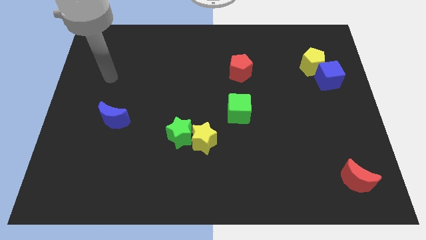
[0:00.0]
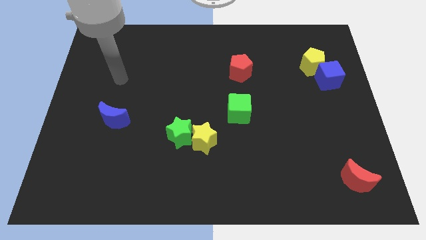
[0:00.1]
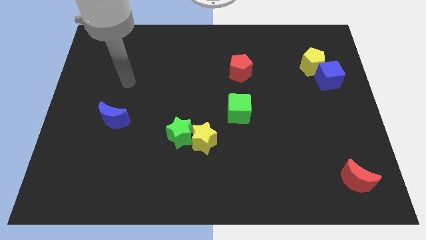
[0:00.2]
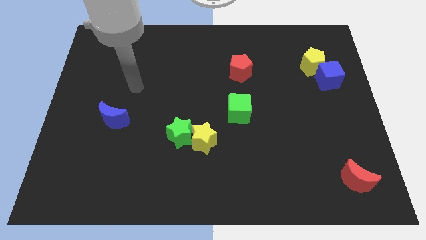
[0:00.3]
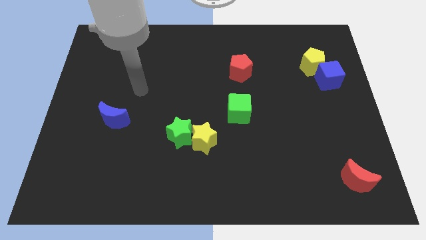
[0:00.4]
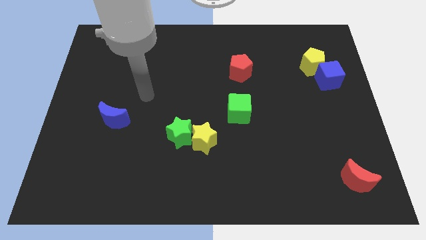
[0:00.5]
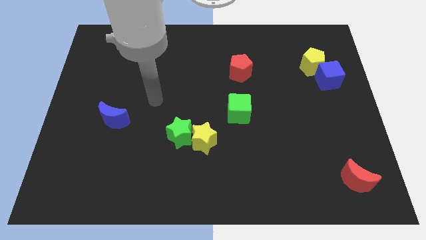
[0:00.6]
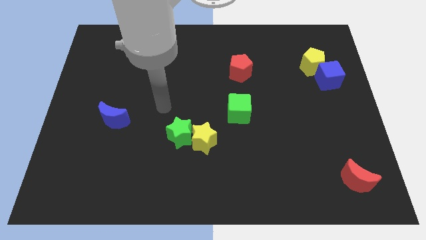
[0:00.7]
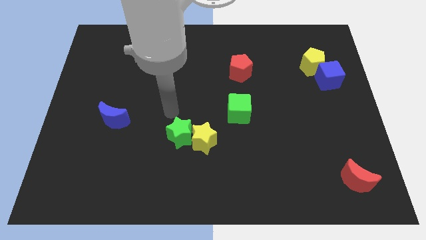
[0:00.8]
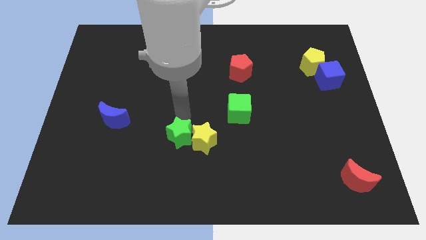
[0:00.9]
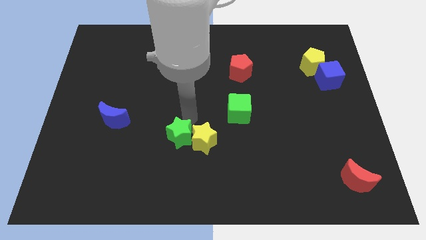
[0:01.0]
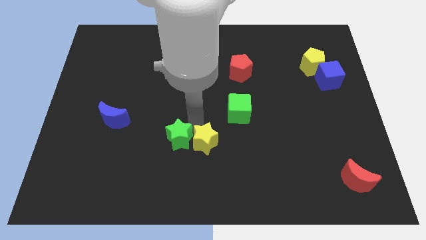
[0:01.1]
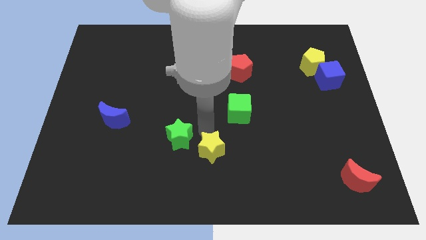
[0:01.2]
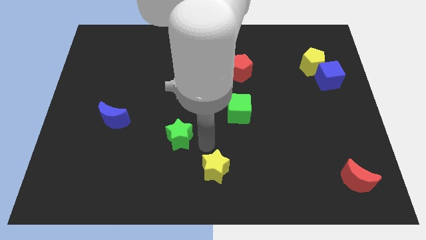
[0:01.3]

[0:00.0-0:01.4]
move the green star away from the yellow star

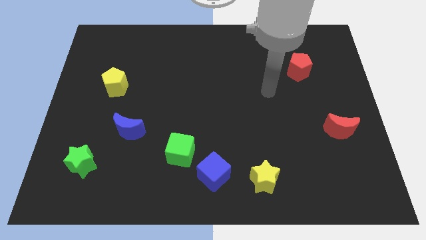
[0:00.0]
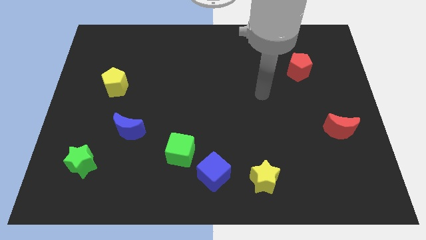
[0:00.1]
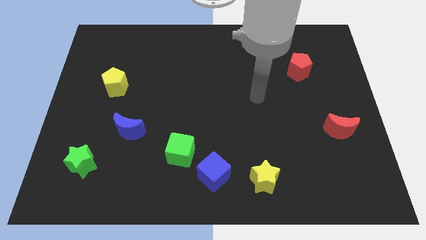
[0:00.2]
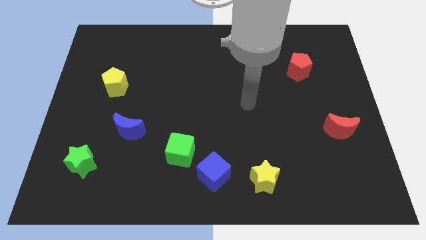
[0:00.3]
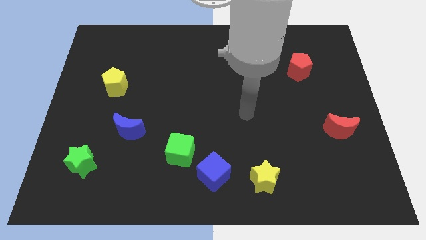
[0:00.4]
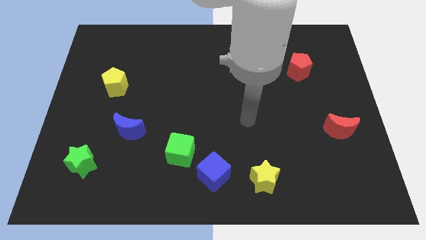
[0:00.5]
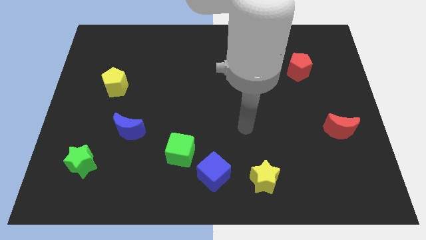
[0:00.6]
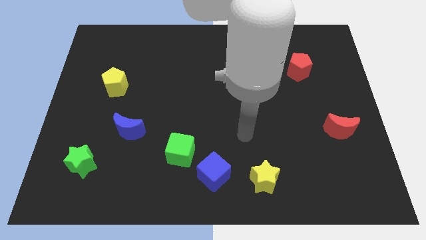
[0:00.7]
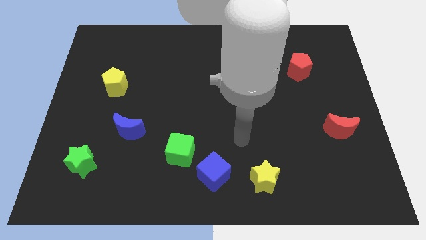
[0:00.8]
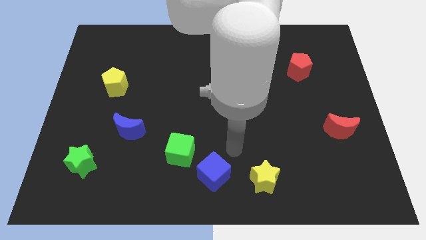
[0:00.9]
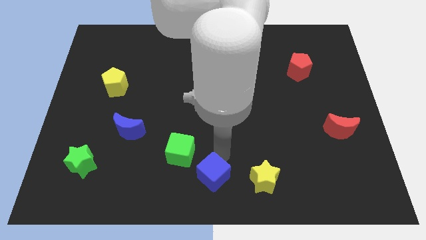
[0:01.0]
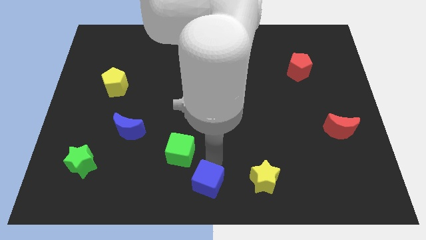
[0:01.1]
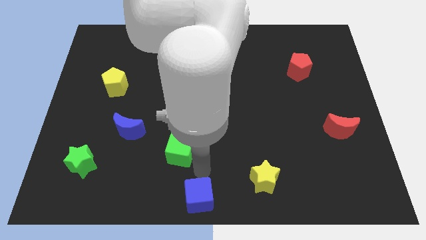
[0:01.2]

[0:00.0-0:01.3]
separate the green cube from the blue cube

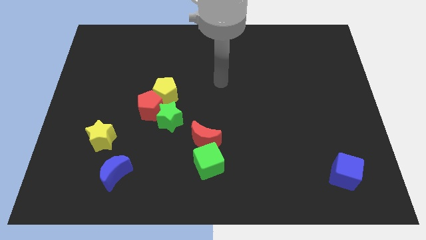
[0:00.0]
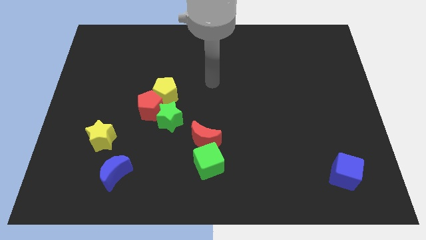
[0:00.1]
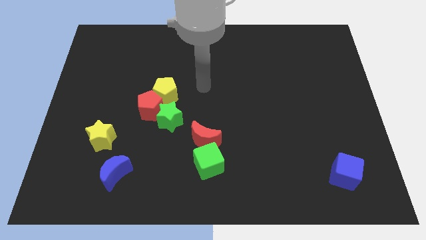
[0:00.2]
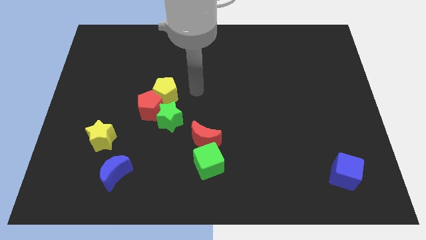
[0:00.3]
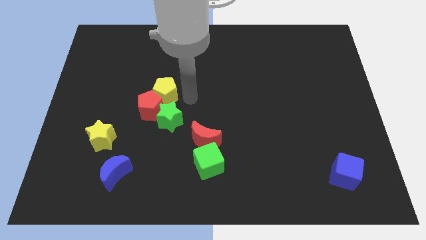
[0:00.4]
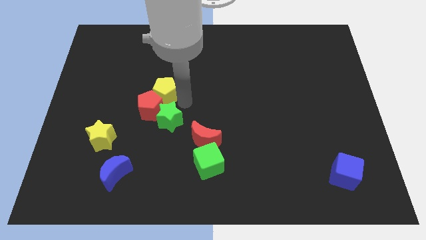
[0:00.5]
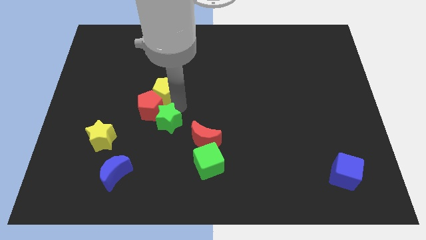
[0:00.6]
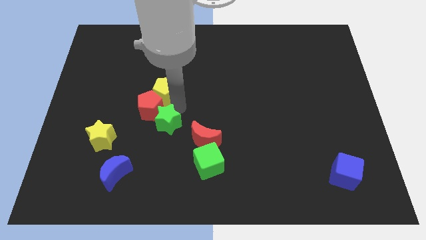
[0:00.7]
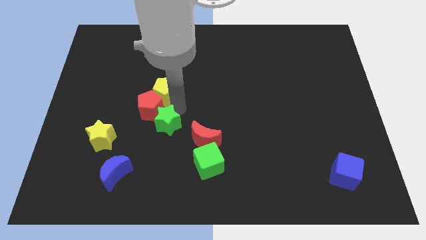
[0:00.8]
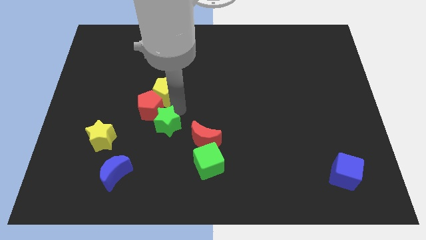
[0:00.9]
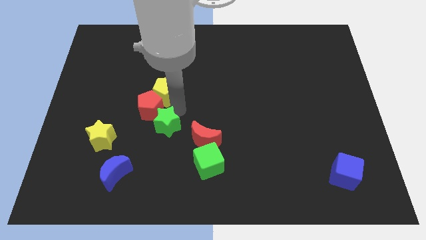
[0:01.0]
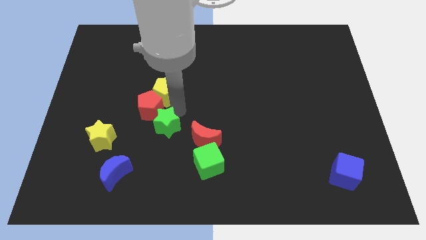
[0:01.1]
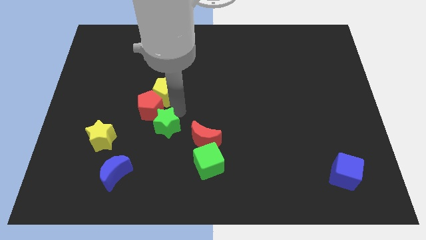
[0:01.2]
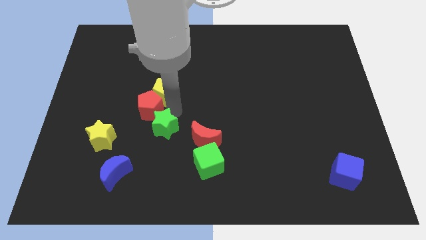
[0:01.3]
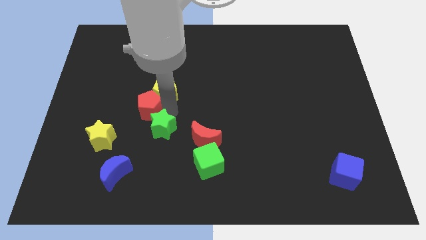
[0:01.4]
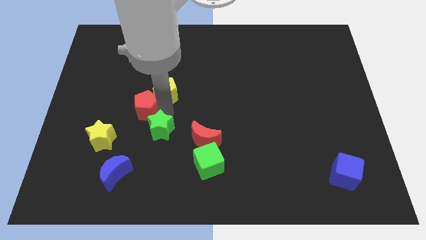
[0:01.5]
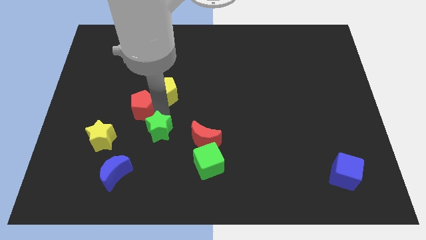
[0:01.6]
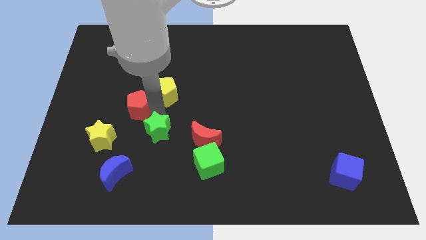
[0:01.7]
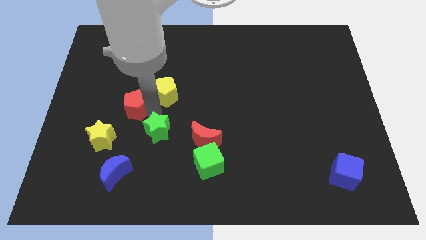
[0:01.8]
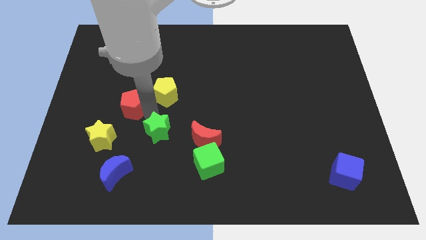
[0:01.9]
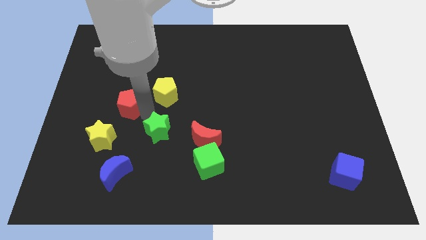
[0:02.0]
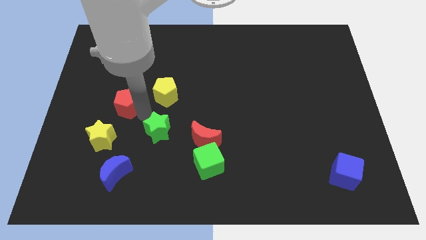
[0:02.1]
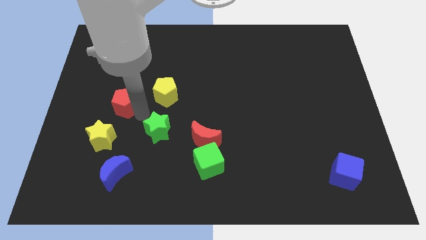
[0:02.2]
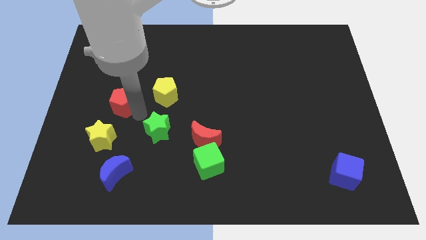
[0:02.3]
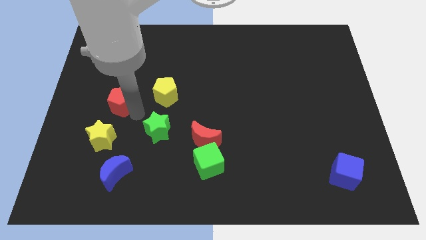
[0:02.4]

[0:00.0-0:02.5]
pull the red pentagon apart from the yellow pentagon and green star

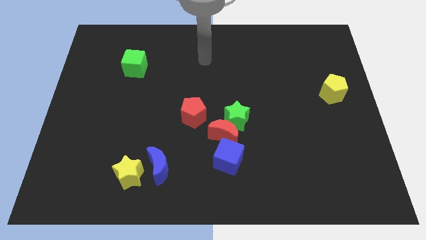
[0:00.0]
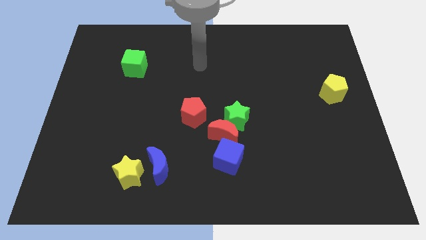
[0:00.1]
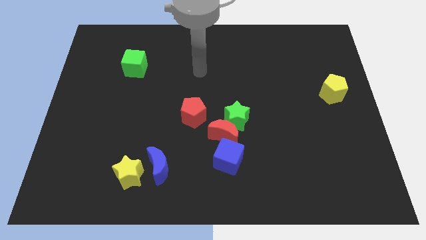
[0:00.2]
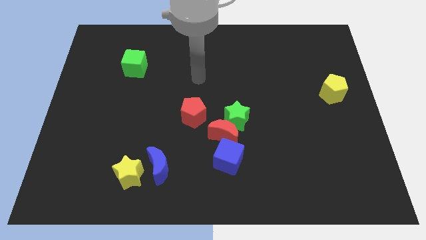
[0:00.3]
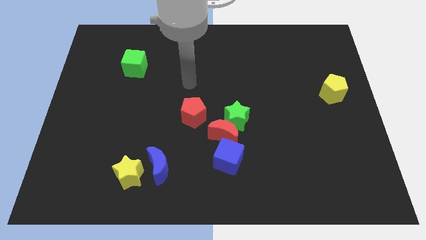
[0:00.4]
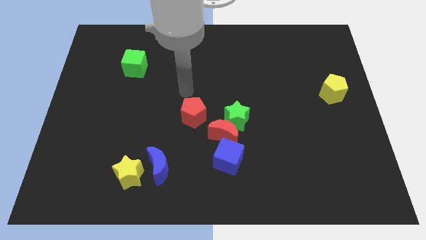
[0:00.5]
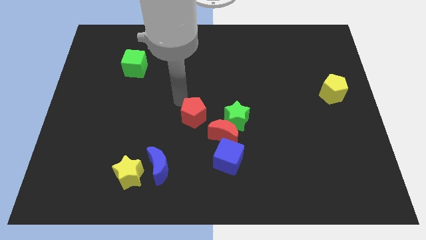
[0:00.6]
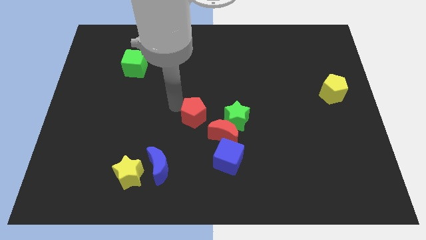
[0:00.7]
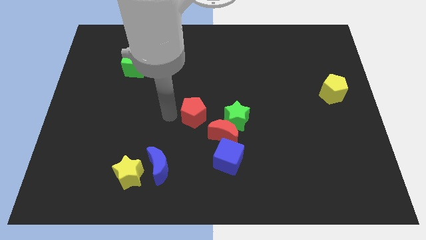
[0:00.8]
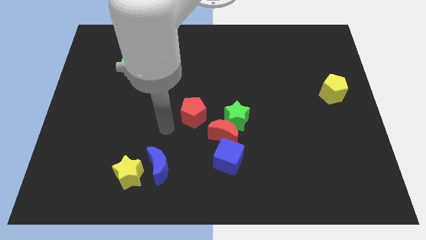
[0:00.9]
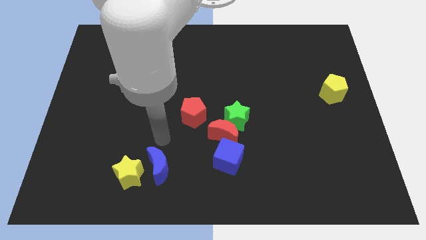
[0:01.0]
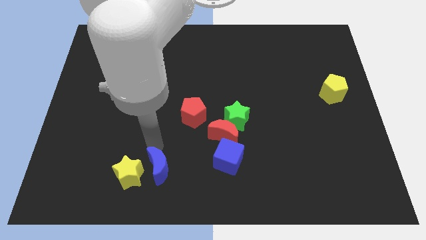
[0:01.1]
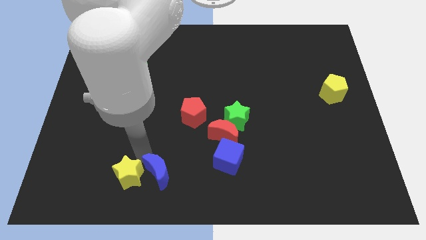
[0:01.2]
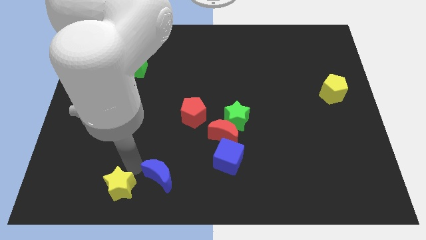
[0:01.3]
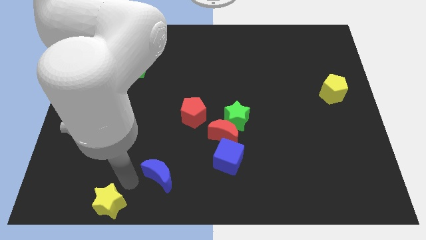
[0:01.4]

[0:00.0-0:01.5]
move the blue moon away from the yellow star

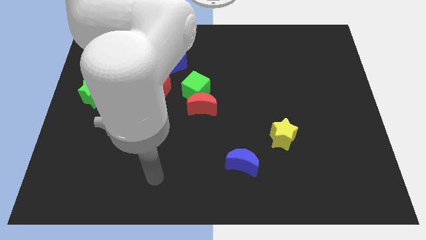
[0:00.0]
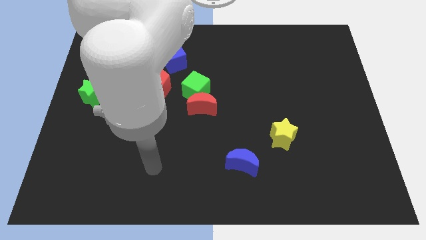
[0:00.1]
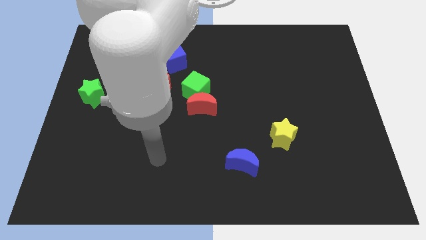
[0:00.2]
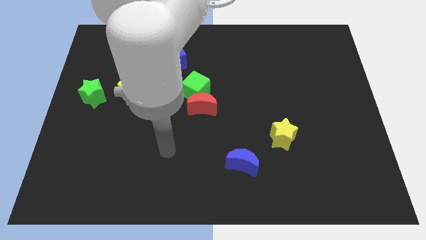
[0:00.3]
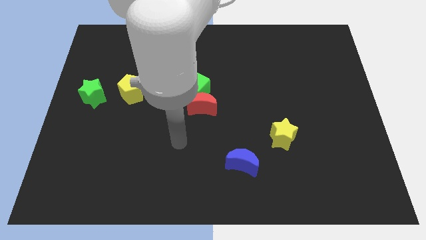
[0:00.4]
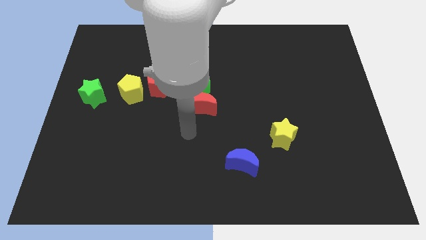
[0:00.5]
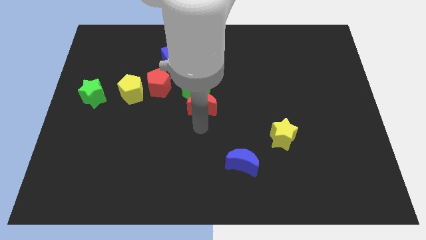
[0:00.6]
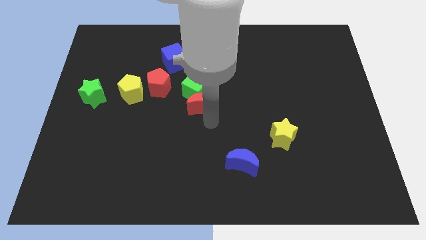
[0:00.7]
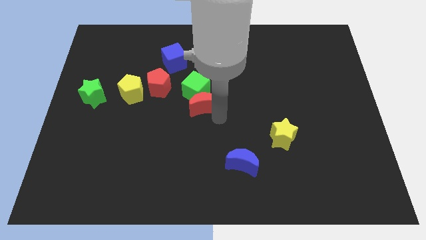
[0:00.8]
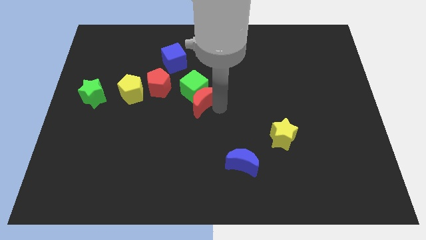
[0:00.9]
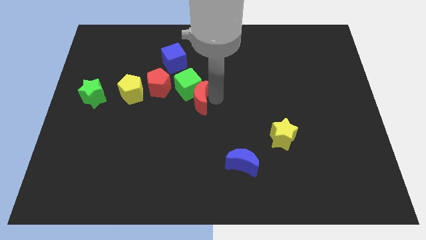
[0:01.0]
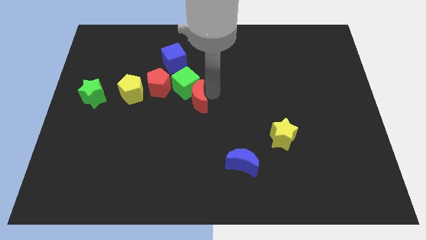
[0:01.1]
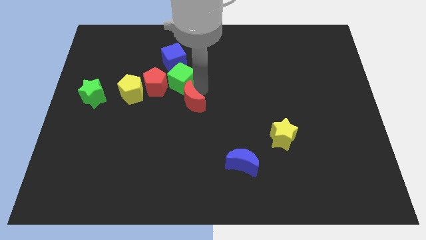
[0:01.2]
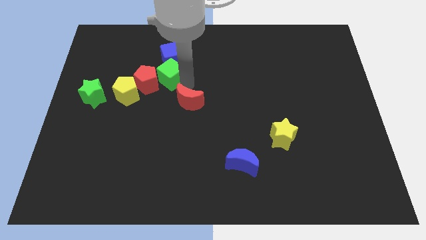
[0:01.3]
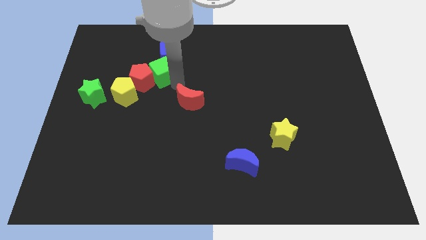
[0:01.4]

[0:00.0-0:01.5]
move the red moon away from the green cube

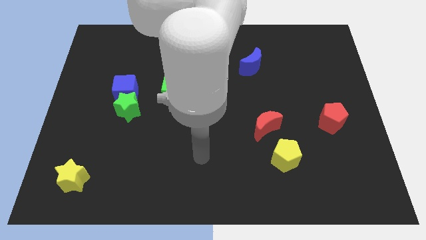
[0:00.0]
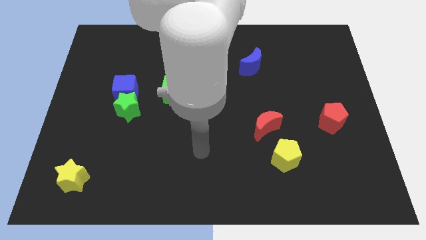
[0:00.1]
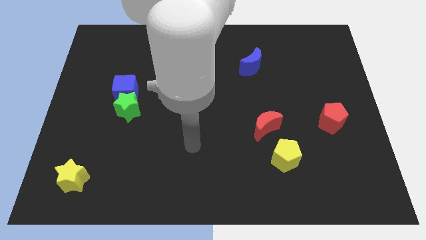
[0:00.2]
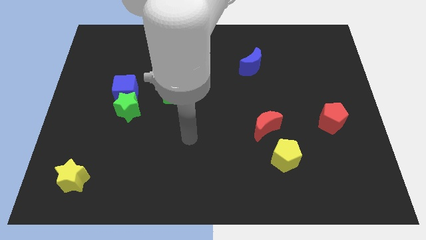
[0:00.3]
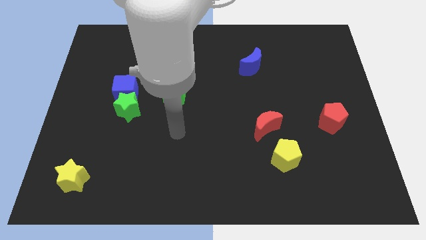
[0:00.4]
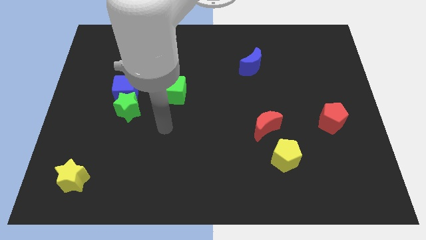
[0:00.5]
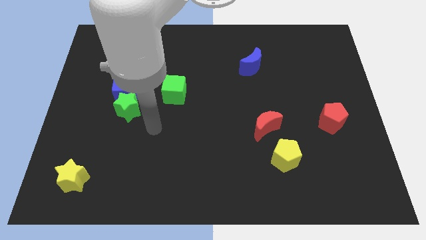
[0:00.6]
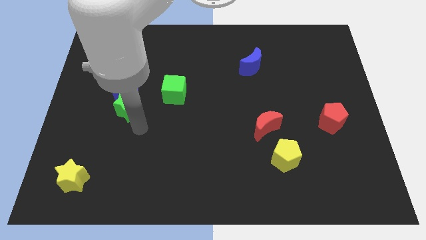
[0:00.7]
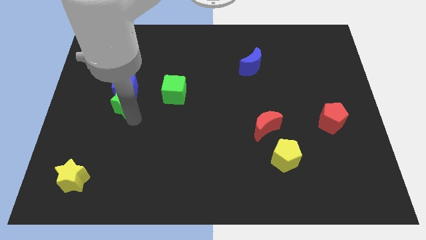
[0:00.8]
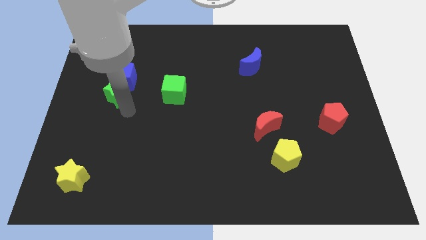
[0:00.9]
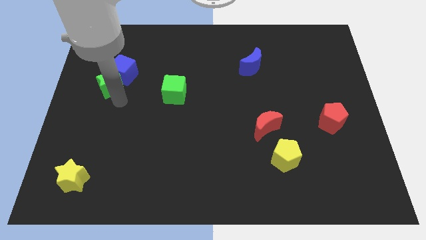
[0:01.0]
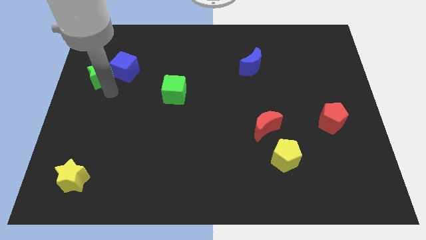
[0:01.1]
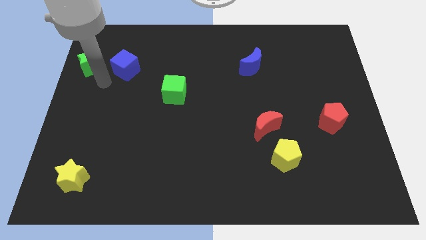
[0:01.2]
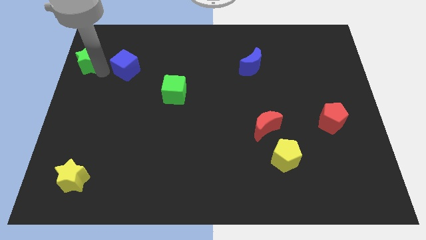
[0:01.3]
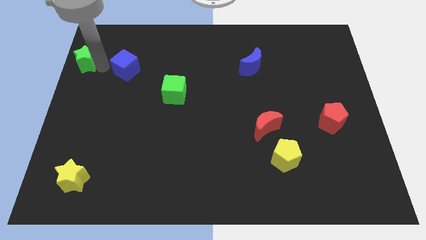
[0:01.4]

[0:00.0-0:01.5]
separate the blue cube from the green star
